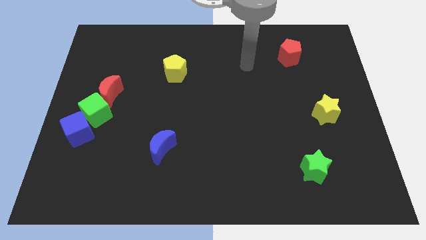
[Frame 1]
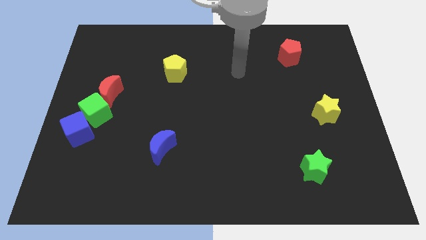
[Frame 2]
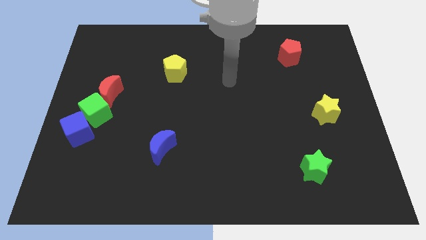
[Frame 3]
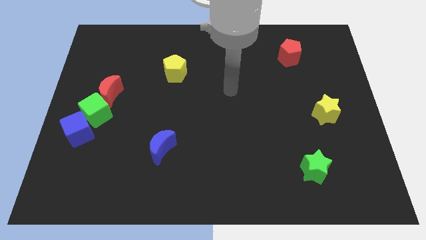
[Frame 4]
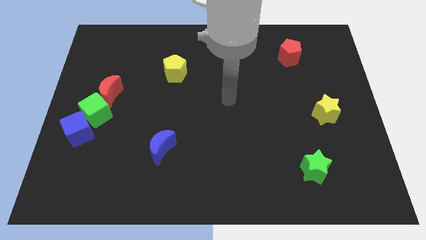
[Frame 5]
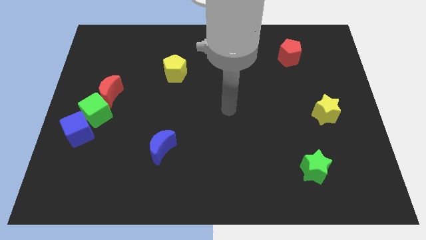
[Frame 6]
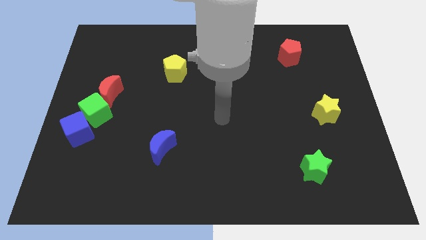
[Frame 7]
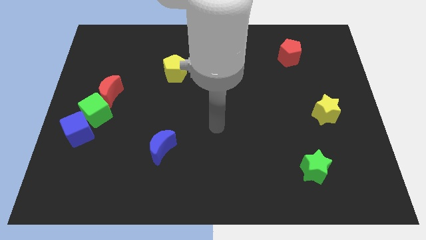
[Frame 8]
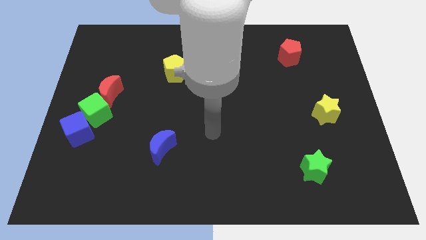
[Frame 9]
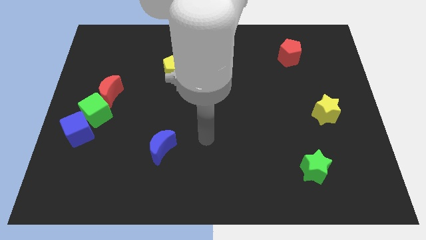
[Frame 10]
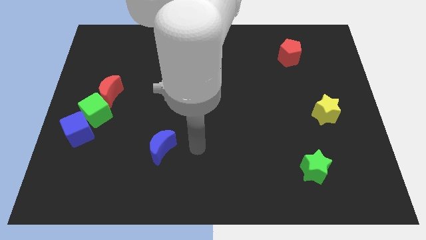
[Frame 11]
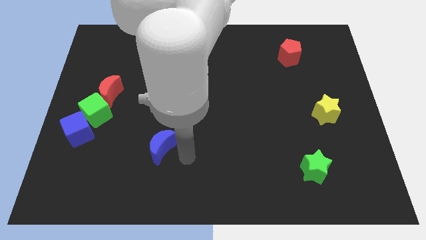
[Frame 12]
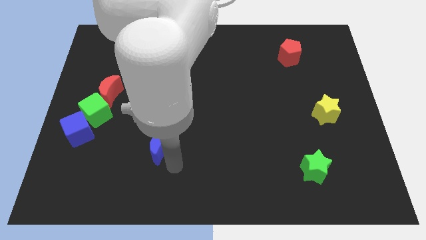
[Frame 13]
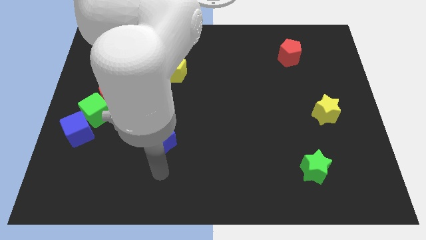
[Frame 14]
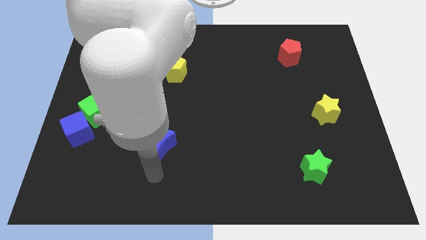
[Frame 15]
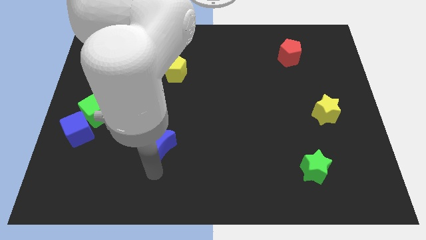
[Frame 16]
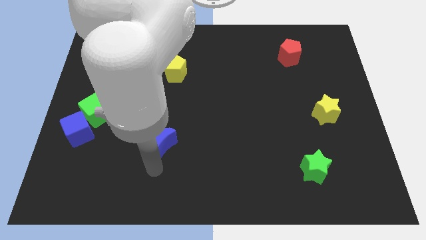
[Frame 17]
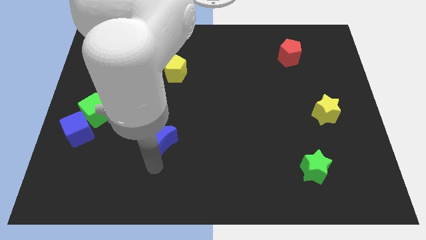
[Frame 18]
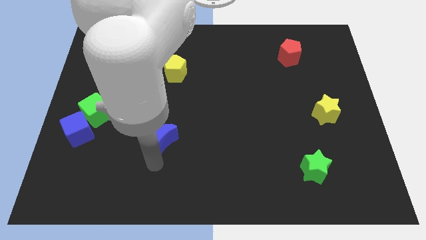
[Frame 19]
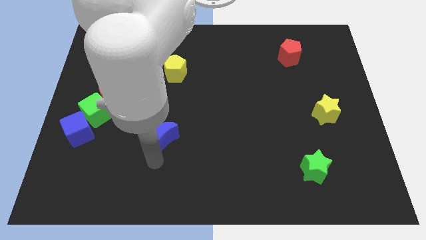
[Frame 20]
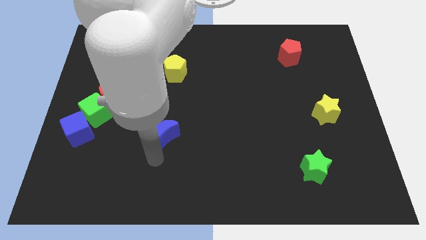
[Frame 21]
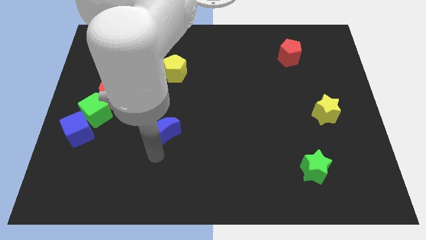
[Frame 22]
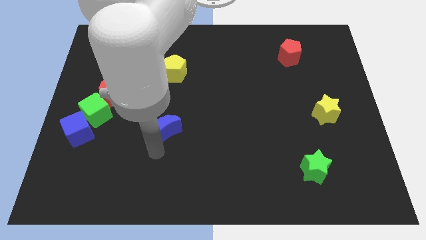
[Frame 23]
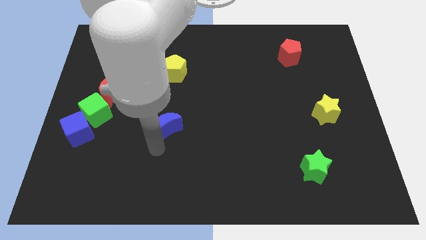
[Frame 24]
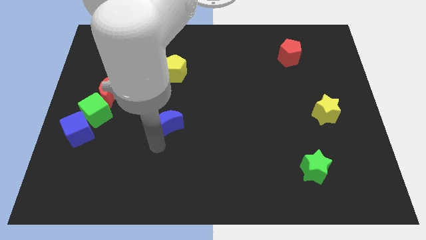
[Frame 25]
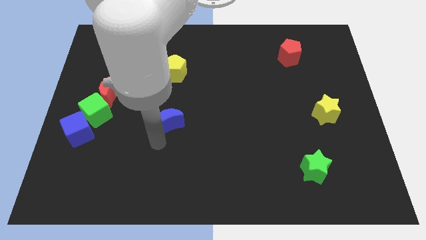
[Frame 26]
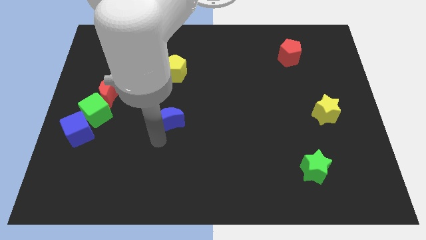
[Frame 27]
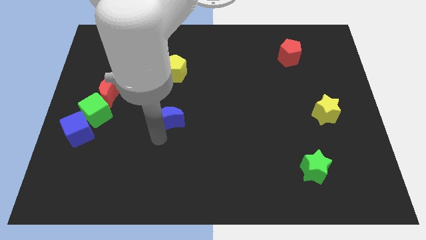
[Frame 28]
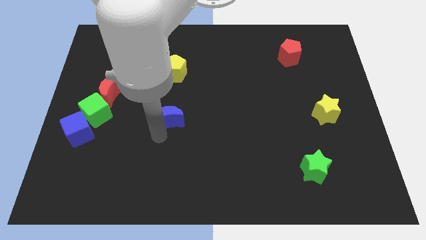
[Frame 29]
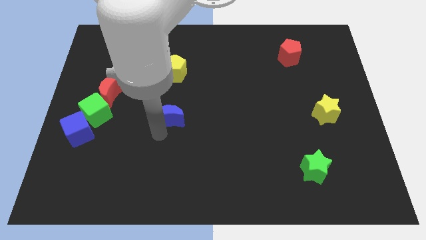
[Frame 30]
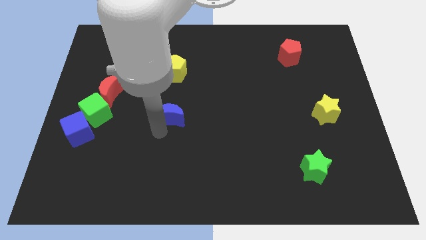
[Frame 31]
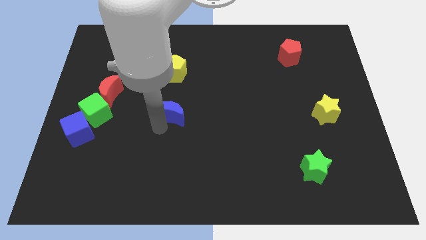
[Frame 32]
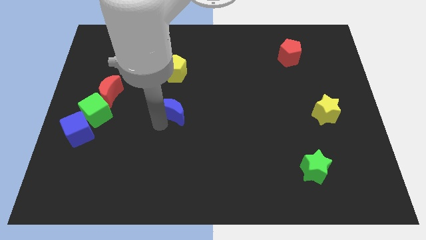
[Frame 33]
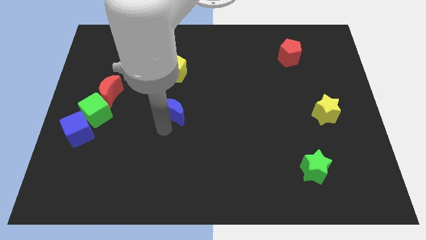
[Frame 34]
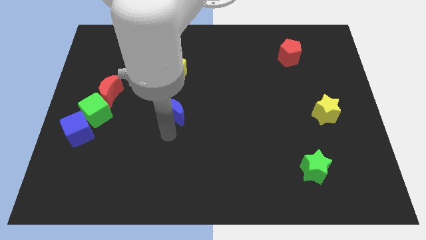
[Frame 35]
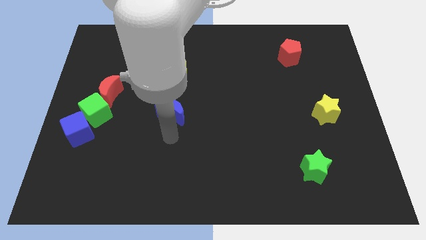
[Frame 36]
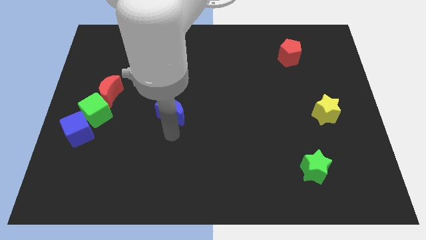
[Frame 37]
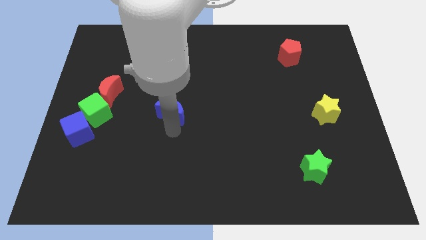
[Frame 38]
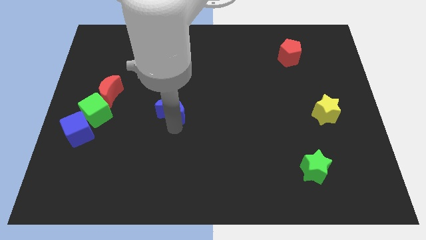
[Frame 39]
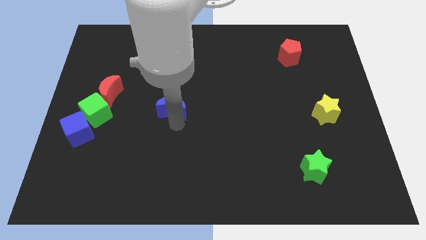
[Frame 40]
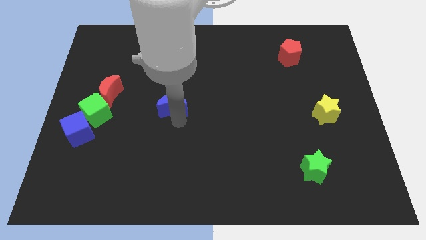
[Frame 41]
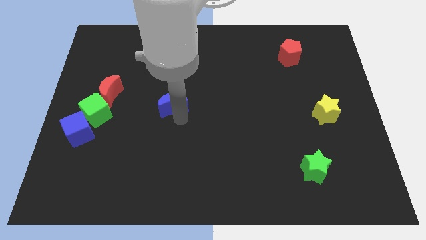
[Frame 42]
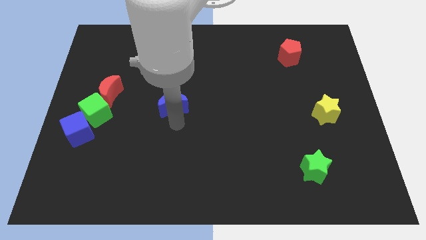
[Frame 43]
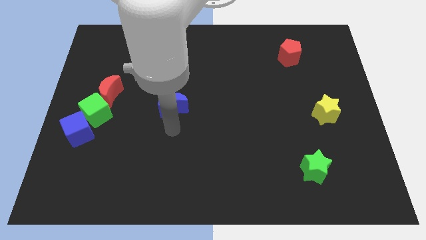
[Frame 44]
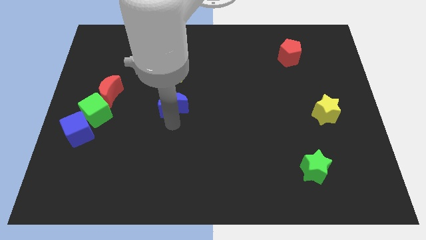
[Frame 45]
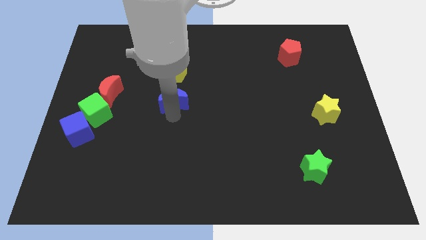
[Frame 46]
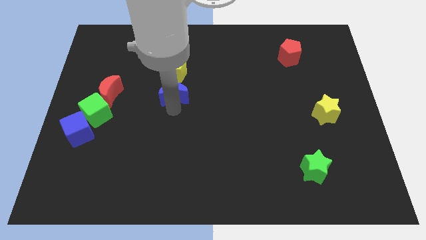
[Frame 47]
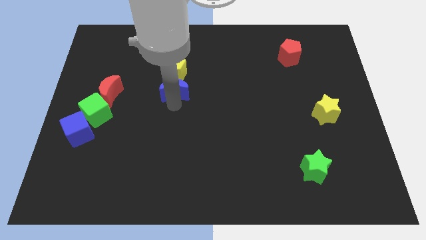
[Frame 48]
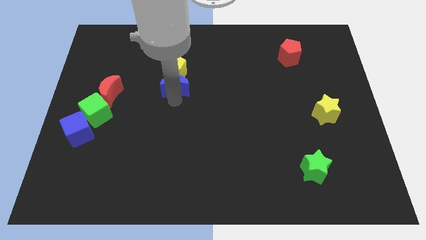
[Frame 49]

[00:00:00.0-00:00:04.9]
slide the blue moon towards the yellow pentagon

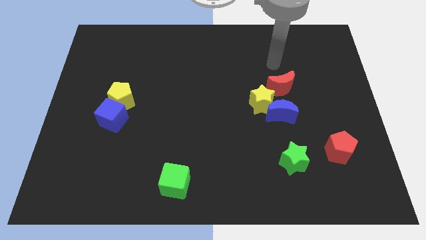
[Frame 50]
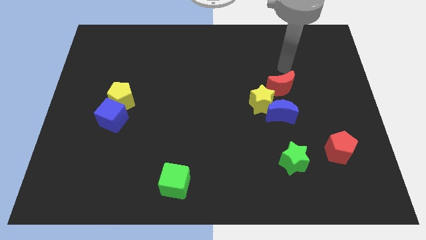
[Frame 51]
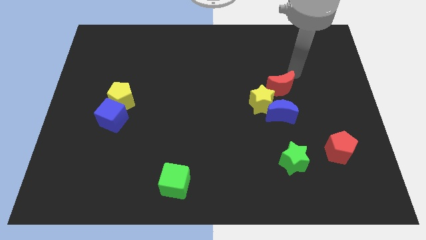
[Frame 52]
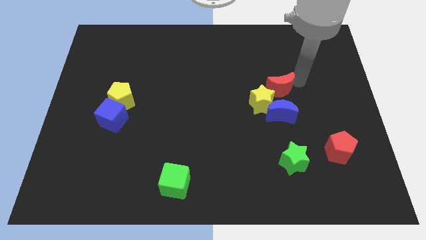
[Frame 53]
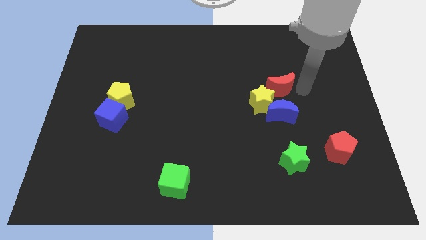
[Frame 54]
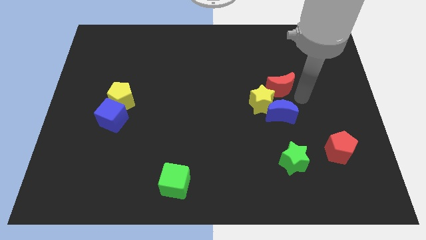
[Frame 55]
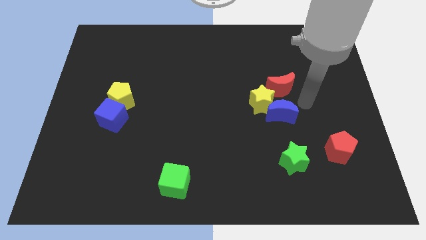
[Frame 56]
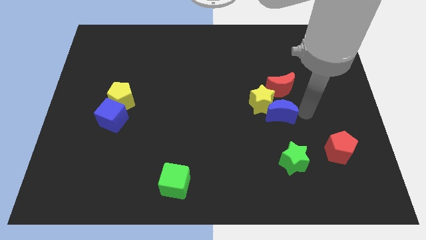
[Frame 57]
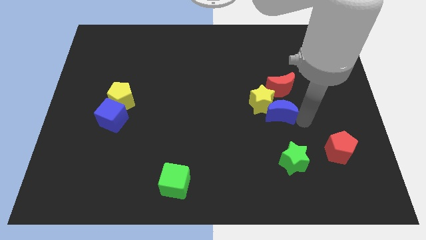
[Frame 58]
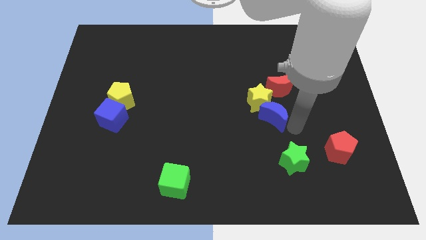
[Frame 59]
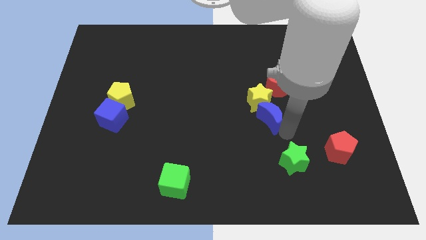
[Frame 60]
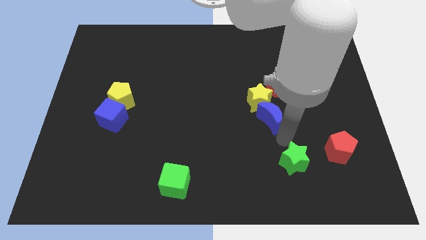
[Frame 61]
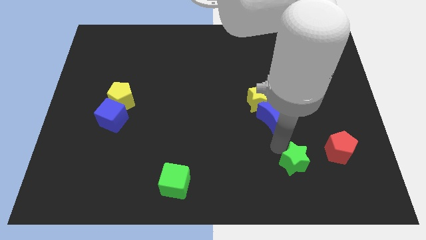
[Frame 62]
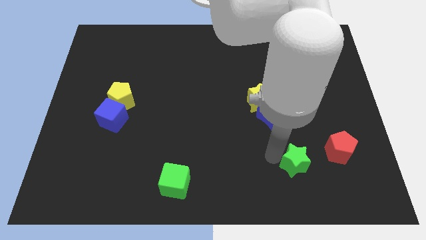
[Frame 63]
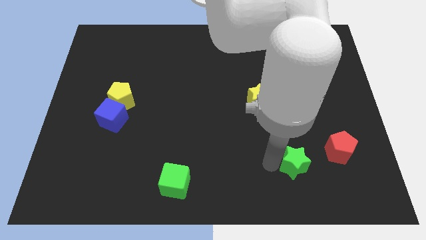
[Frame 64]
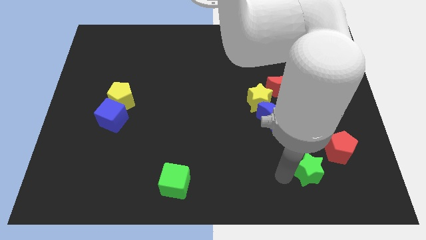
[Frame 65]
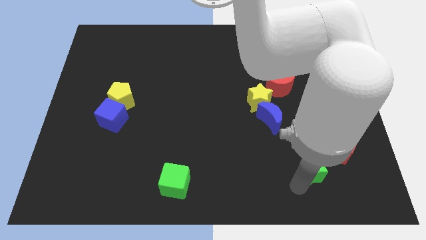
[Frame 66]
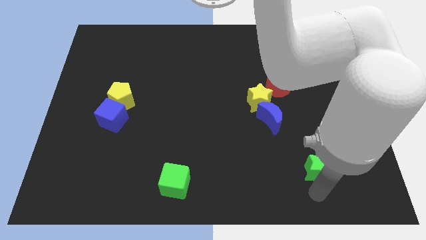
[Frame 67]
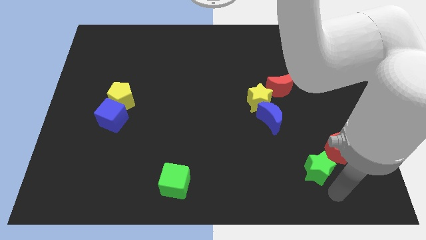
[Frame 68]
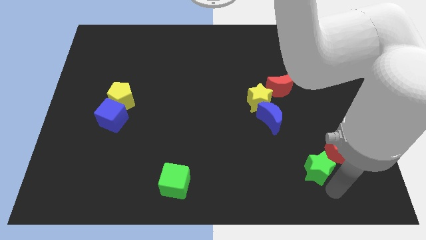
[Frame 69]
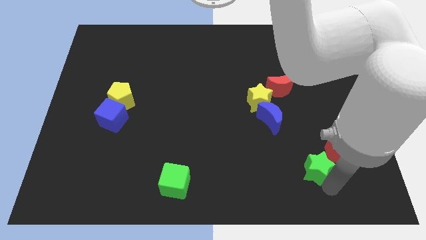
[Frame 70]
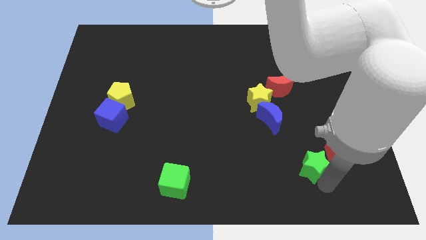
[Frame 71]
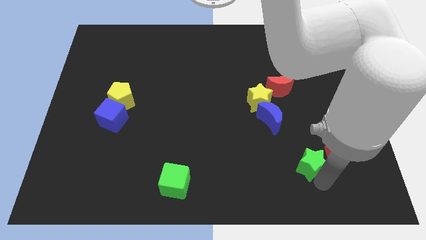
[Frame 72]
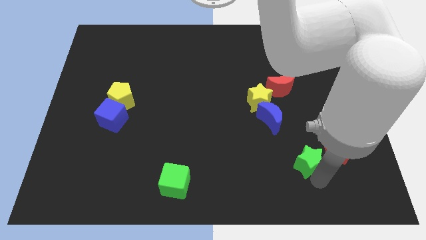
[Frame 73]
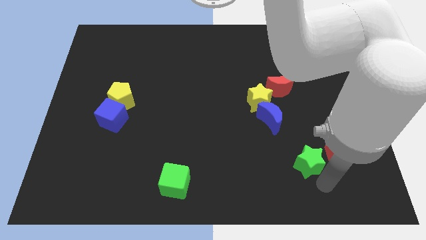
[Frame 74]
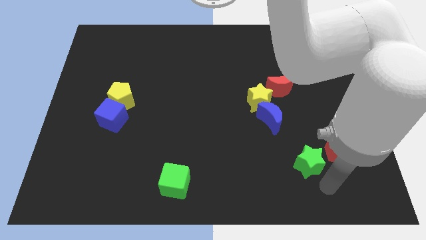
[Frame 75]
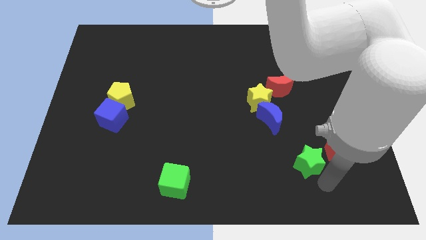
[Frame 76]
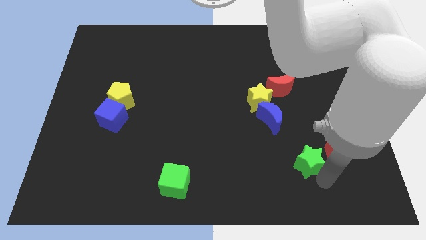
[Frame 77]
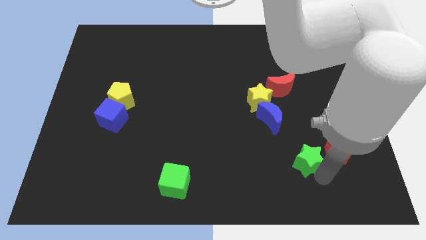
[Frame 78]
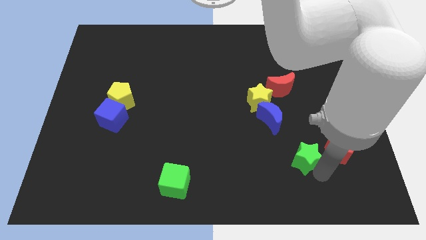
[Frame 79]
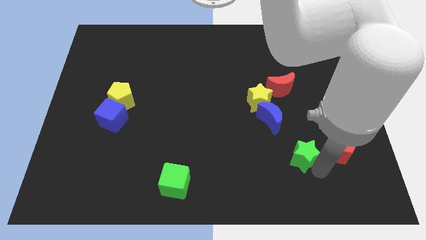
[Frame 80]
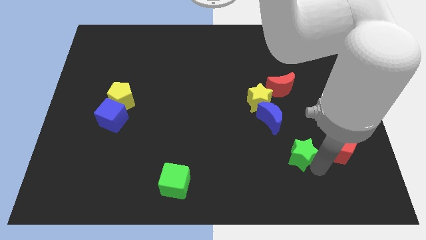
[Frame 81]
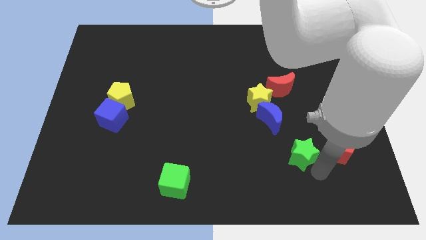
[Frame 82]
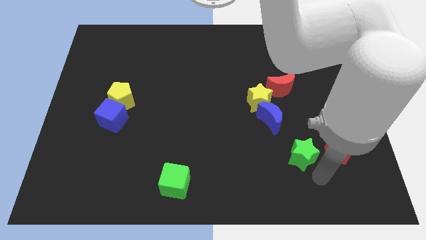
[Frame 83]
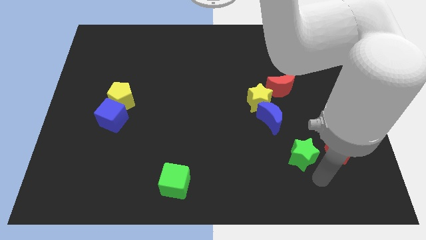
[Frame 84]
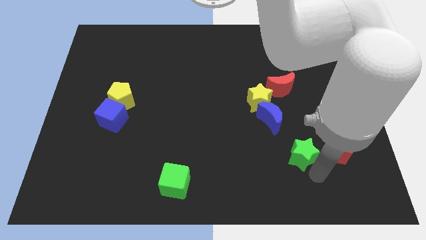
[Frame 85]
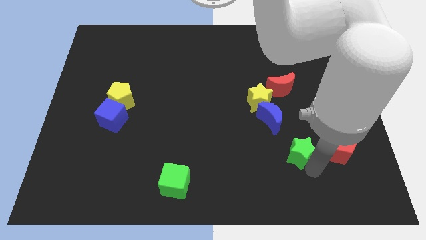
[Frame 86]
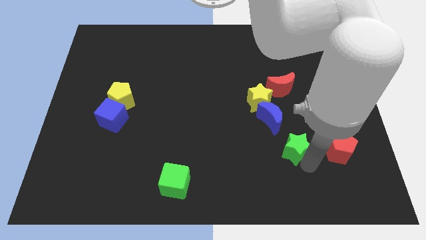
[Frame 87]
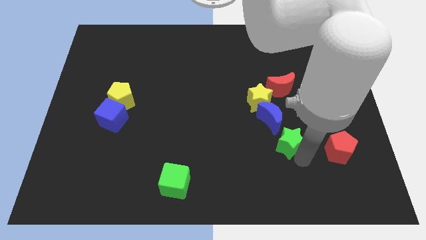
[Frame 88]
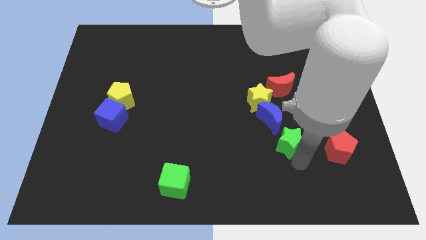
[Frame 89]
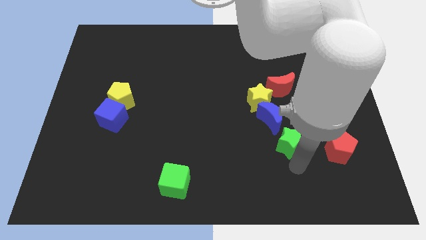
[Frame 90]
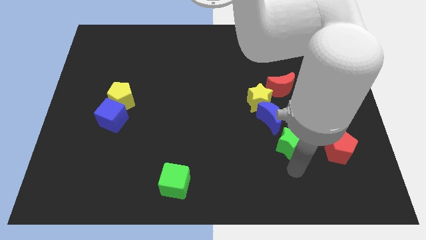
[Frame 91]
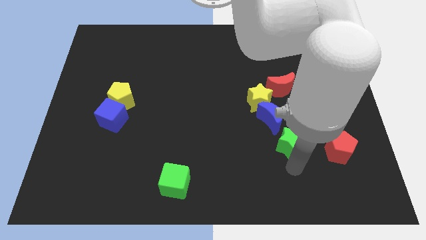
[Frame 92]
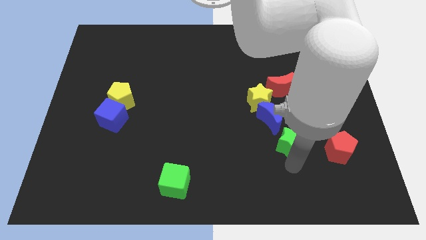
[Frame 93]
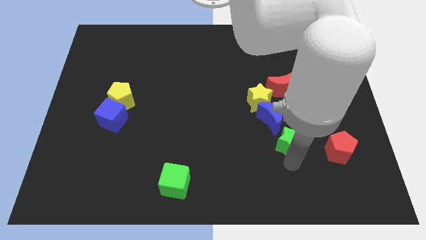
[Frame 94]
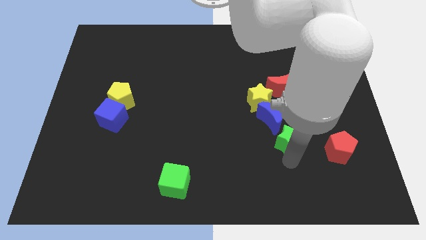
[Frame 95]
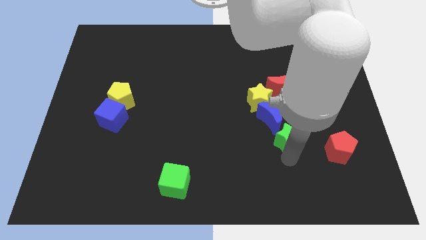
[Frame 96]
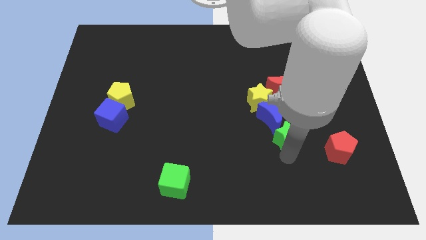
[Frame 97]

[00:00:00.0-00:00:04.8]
push the green star to the blue moon
